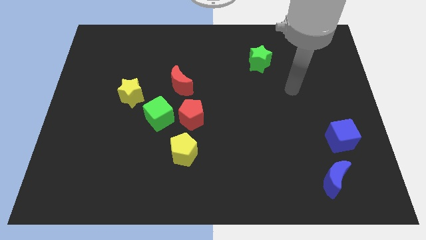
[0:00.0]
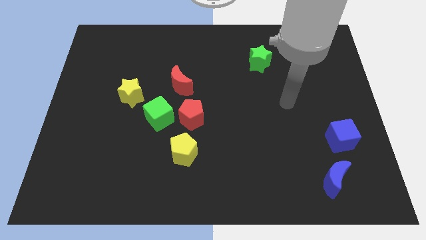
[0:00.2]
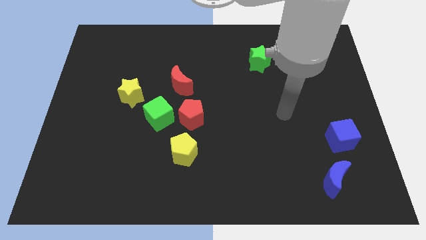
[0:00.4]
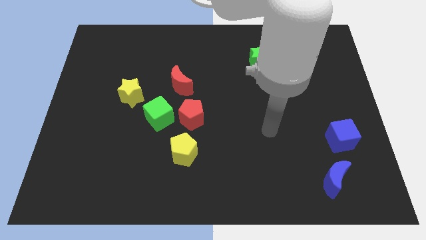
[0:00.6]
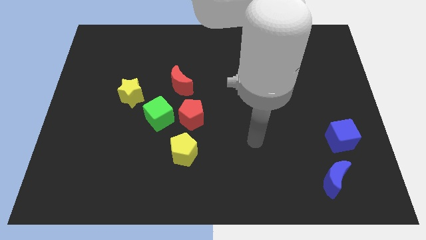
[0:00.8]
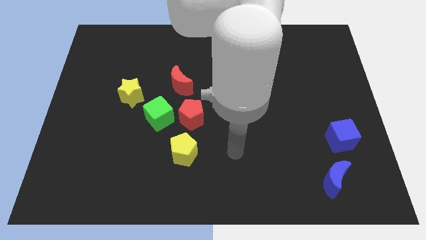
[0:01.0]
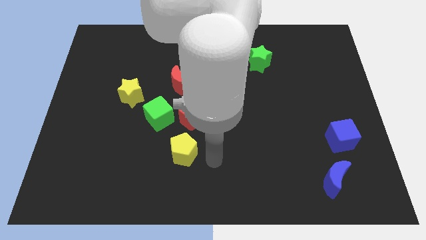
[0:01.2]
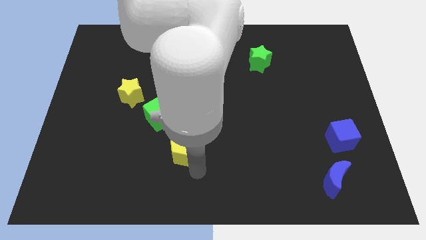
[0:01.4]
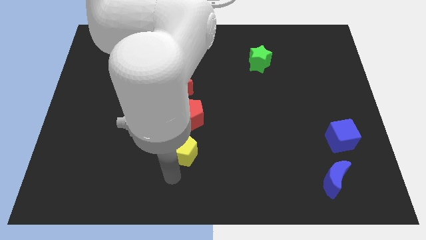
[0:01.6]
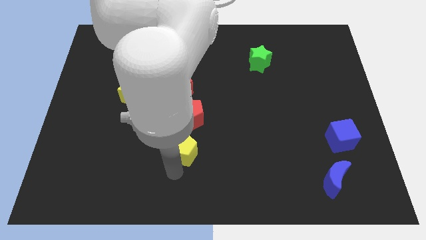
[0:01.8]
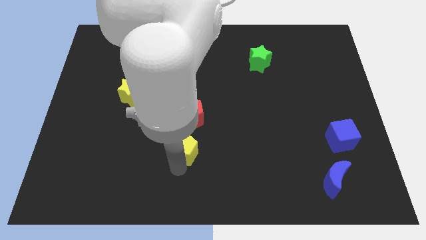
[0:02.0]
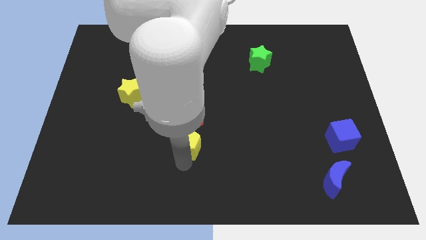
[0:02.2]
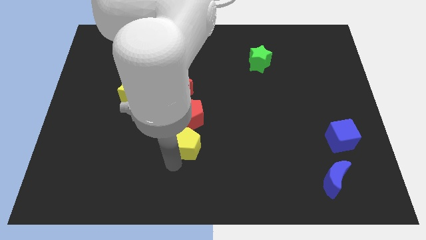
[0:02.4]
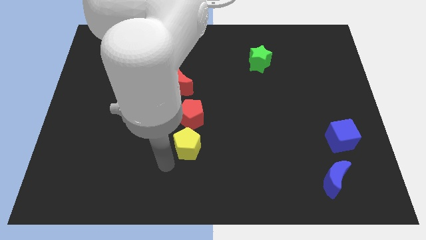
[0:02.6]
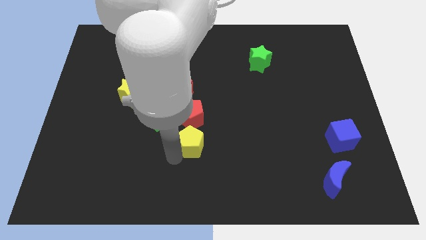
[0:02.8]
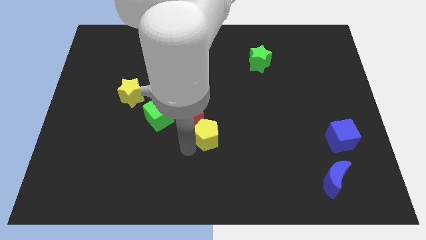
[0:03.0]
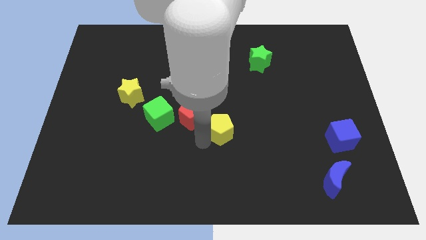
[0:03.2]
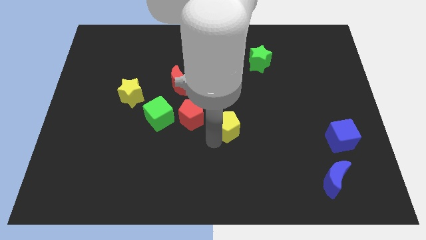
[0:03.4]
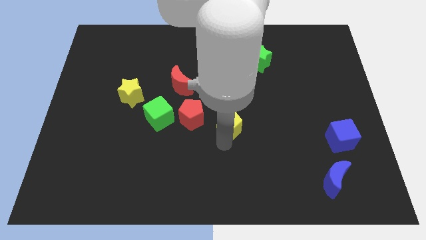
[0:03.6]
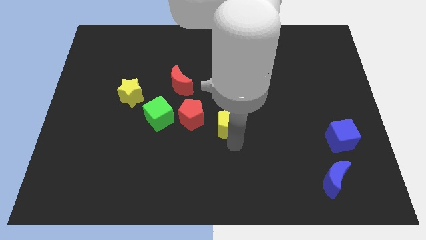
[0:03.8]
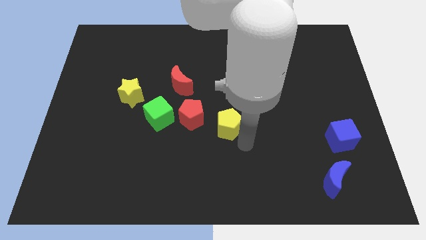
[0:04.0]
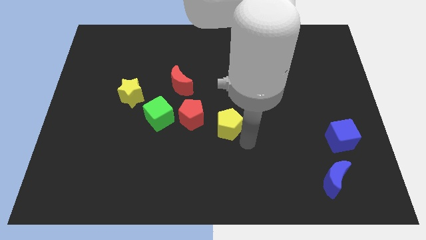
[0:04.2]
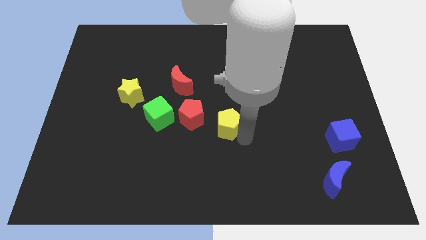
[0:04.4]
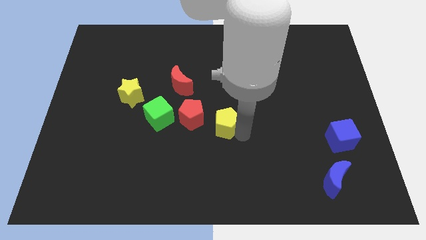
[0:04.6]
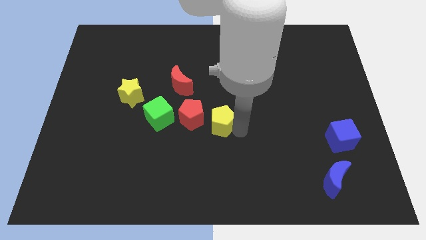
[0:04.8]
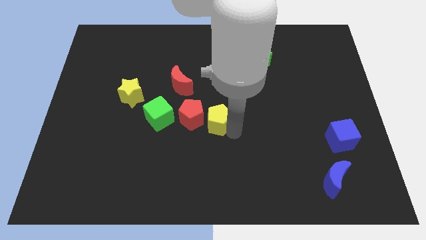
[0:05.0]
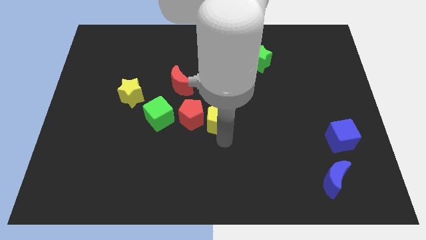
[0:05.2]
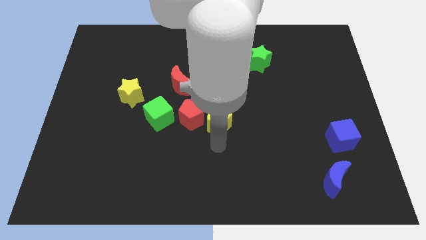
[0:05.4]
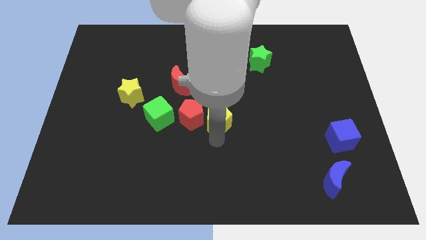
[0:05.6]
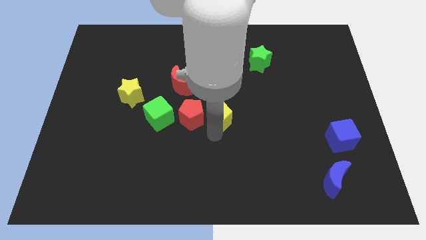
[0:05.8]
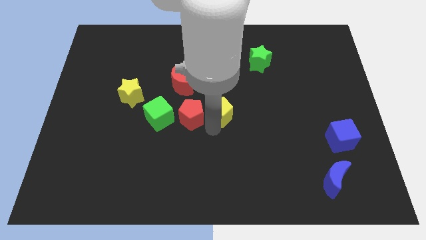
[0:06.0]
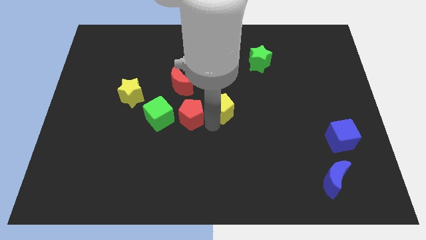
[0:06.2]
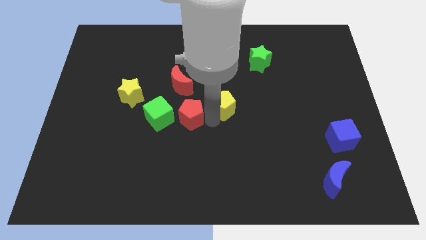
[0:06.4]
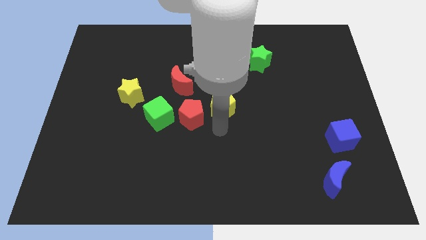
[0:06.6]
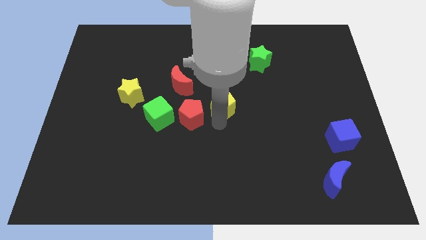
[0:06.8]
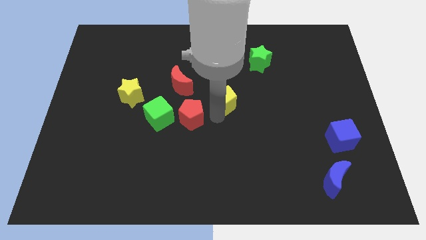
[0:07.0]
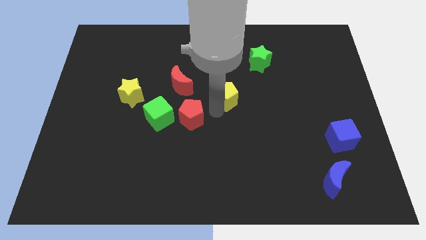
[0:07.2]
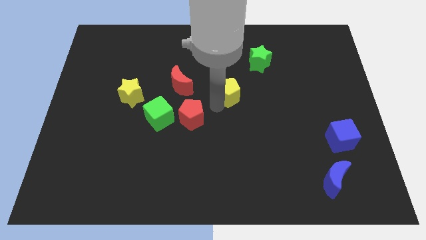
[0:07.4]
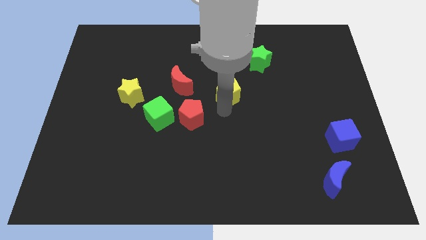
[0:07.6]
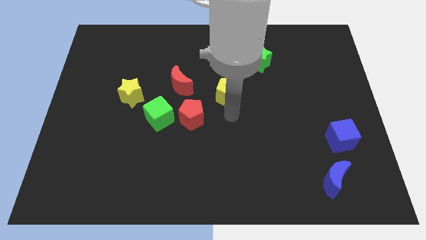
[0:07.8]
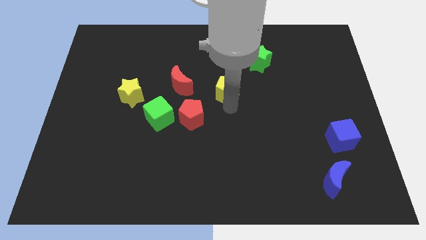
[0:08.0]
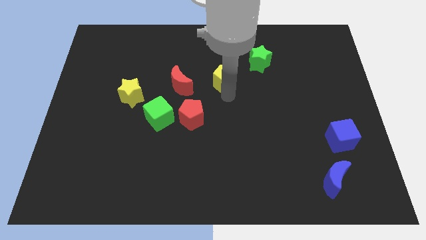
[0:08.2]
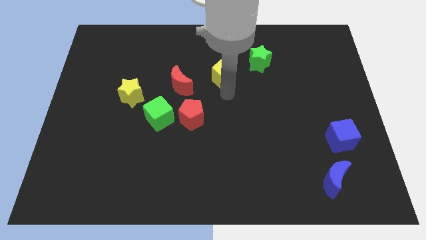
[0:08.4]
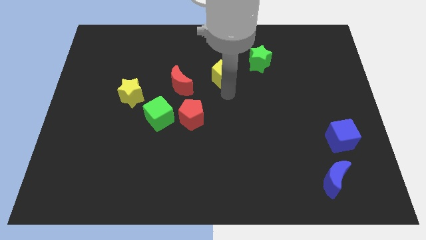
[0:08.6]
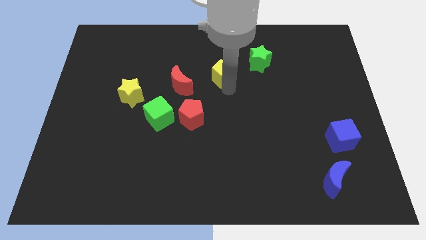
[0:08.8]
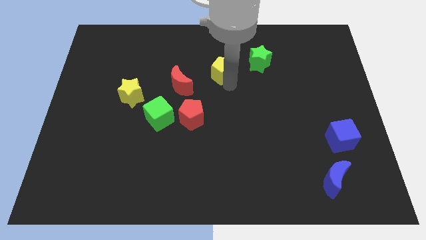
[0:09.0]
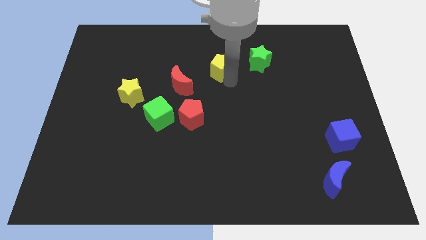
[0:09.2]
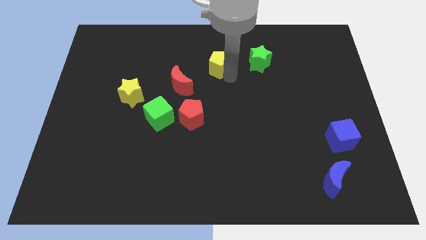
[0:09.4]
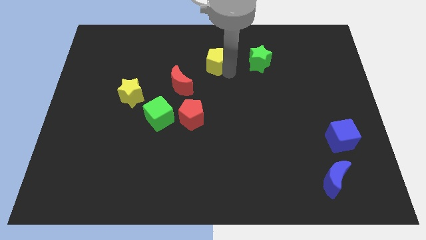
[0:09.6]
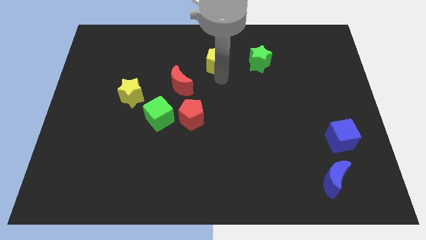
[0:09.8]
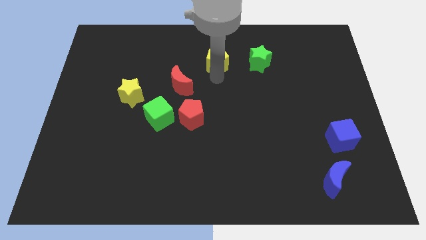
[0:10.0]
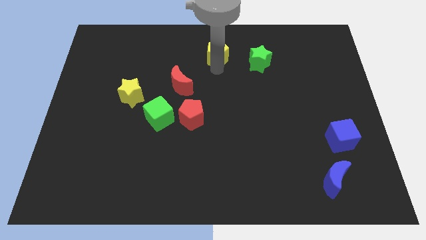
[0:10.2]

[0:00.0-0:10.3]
put the yellow pentagon to the top

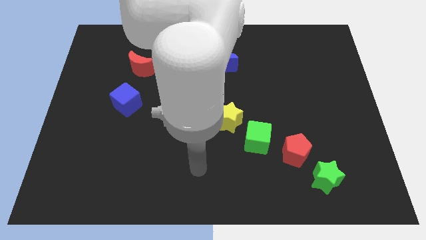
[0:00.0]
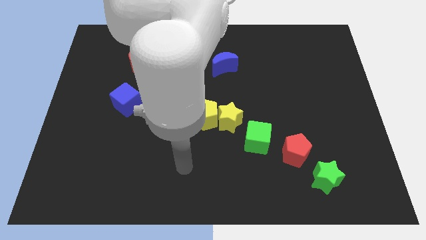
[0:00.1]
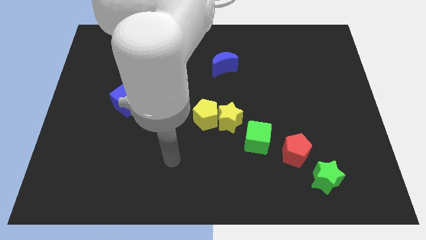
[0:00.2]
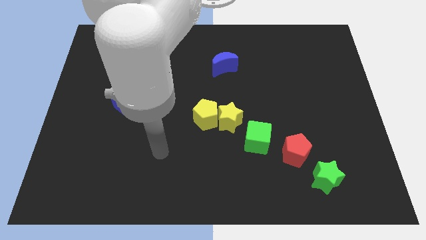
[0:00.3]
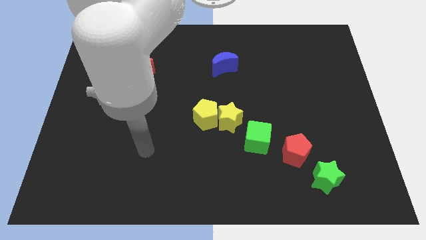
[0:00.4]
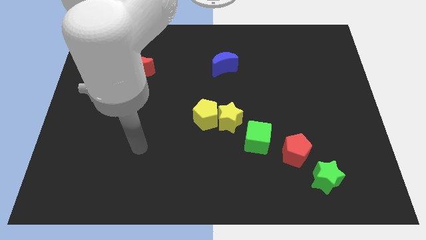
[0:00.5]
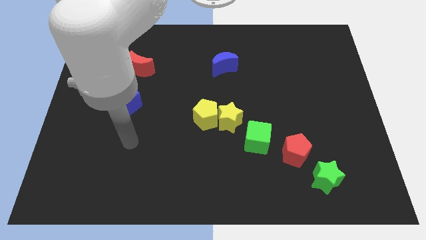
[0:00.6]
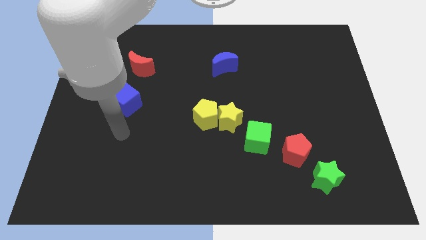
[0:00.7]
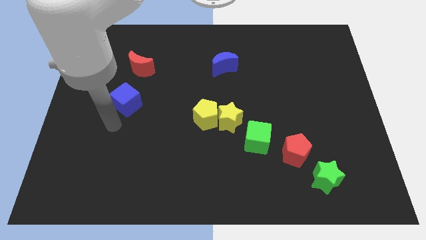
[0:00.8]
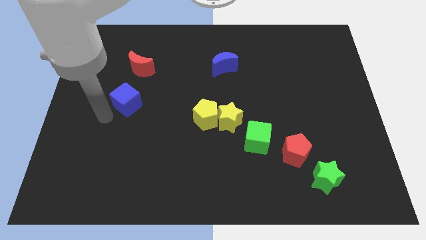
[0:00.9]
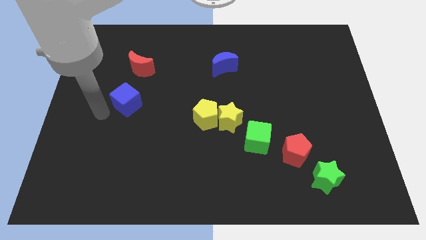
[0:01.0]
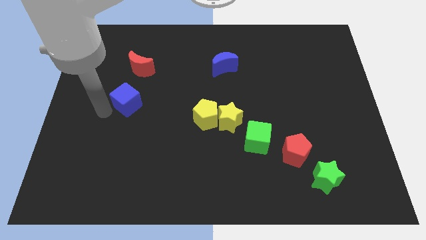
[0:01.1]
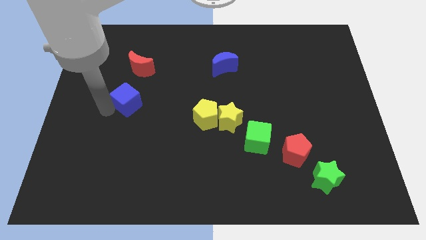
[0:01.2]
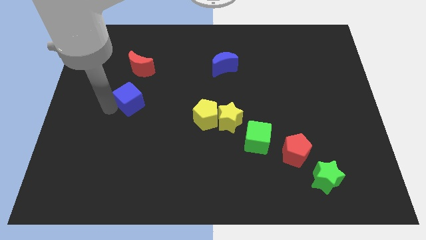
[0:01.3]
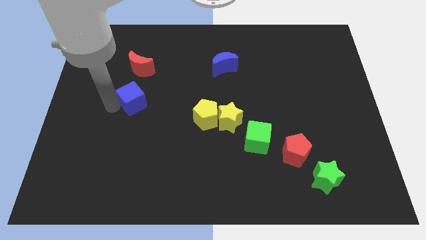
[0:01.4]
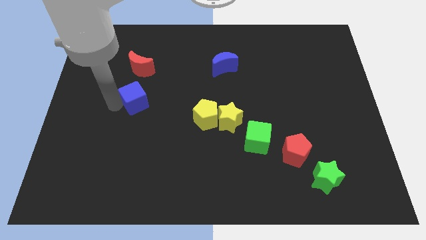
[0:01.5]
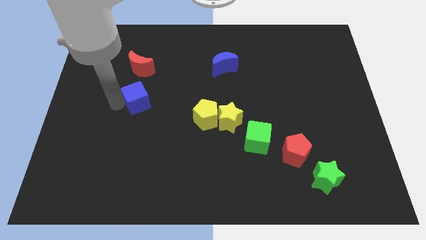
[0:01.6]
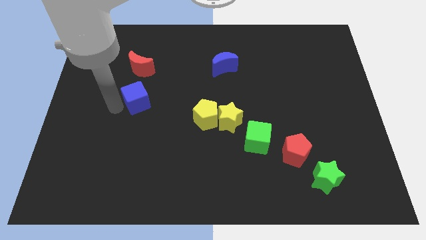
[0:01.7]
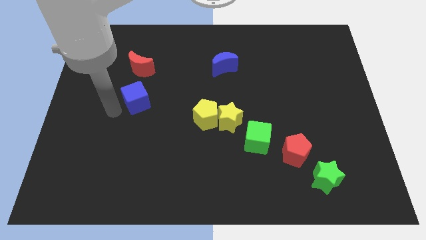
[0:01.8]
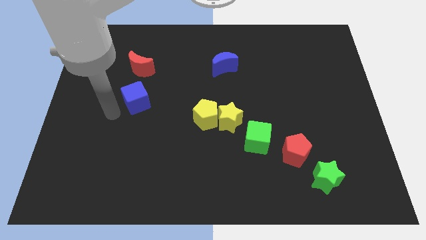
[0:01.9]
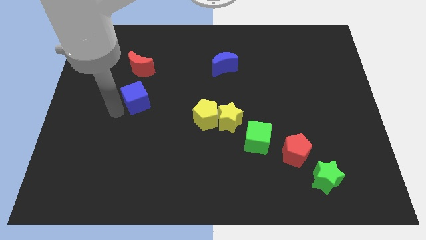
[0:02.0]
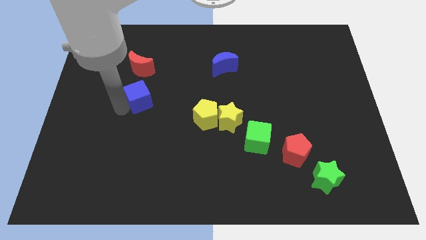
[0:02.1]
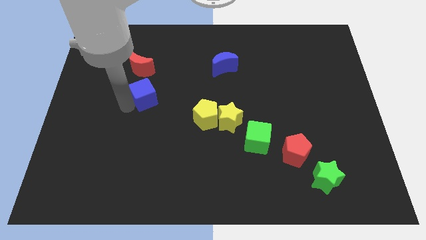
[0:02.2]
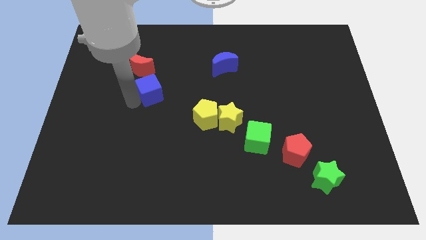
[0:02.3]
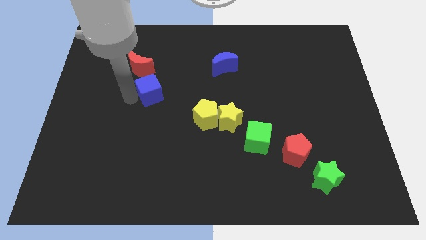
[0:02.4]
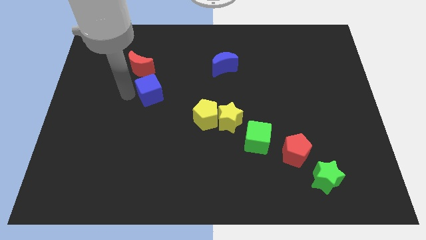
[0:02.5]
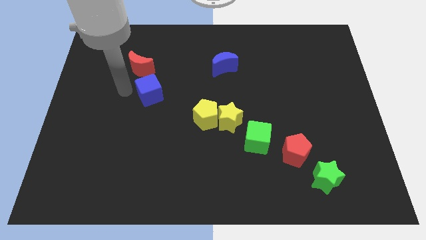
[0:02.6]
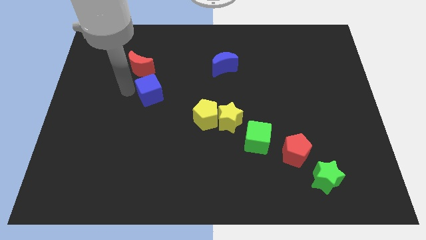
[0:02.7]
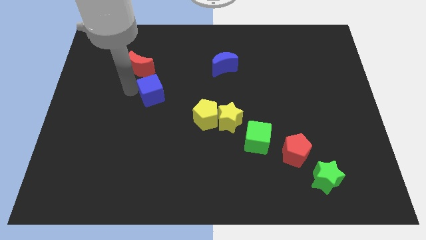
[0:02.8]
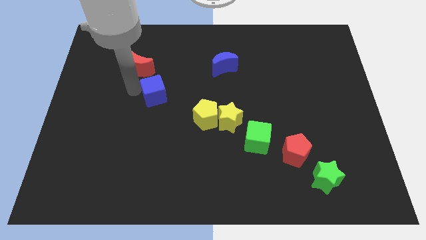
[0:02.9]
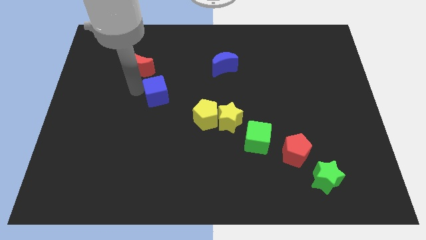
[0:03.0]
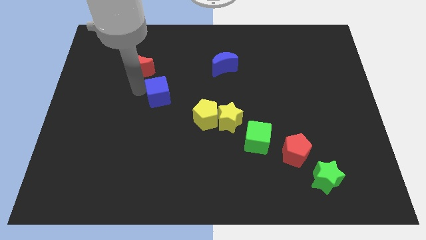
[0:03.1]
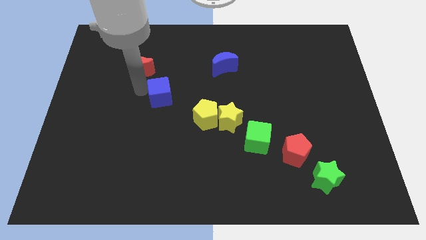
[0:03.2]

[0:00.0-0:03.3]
push the blue cube to the middle of the board
